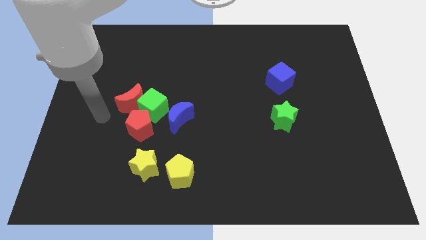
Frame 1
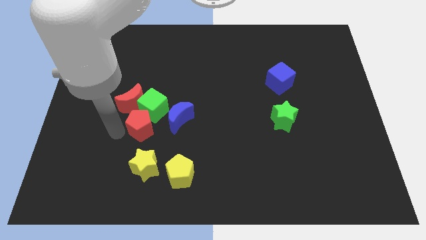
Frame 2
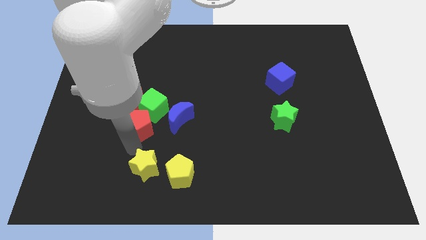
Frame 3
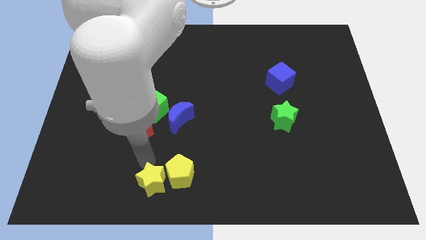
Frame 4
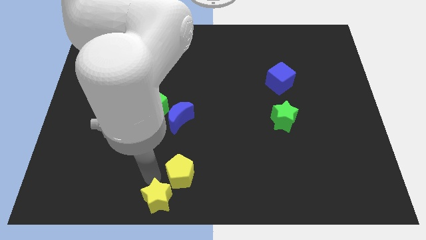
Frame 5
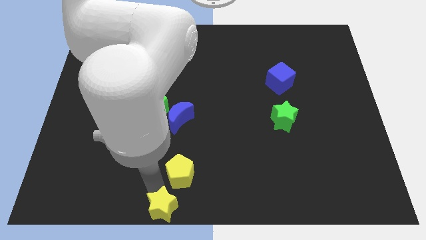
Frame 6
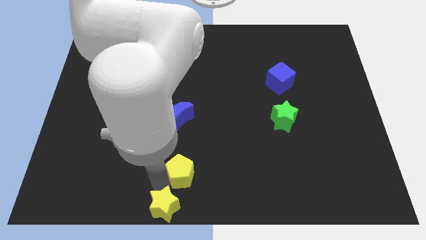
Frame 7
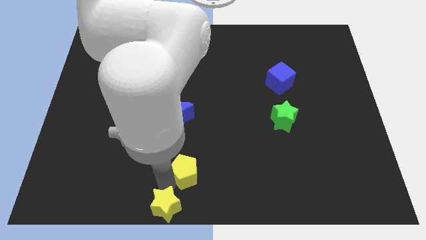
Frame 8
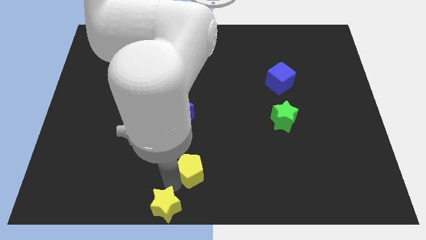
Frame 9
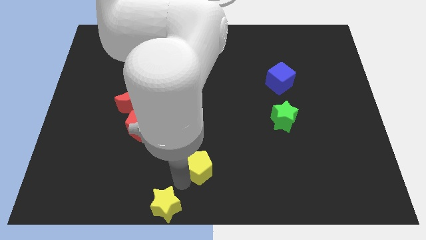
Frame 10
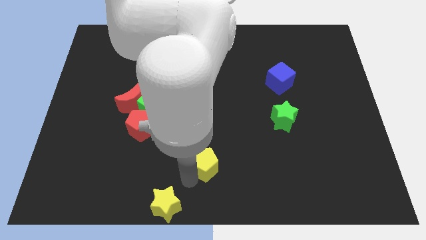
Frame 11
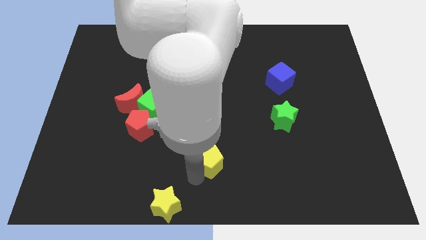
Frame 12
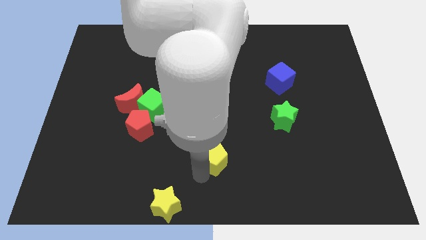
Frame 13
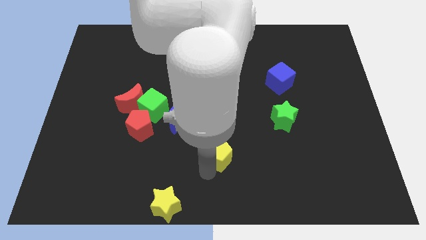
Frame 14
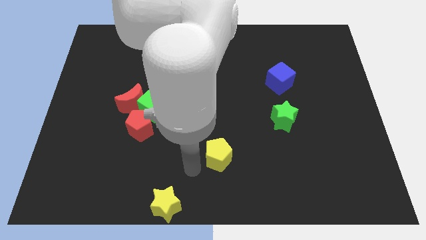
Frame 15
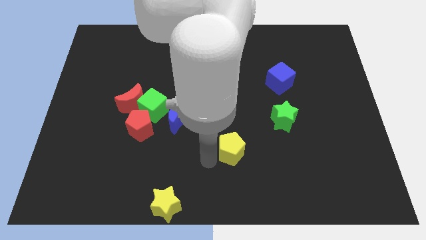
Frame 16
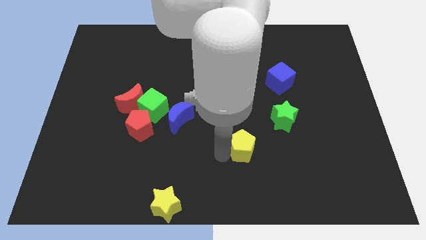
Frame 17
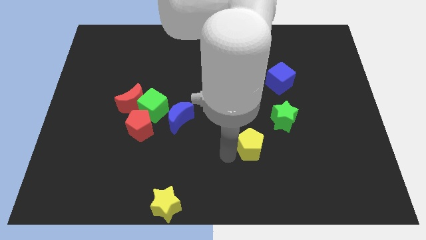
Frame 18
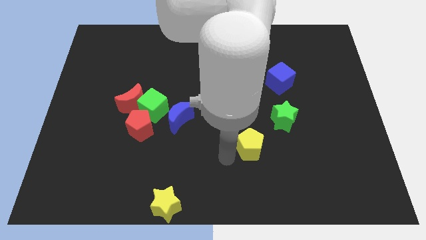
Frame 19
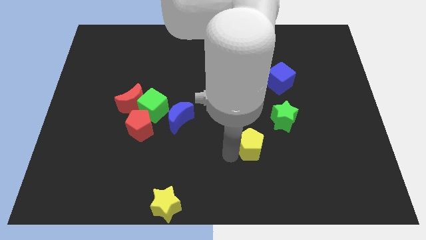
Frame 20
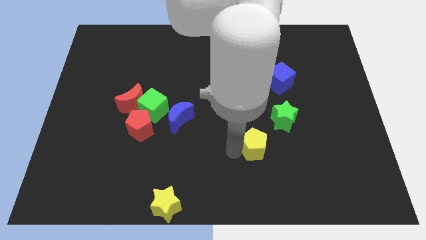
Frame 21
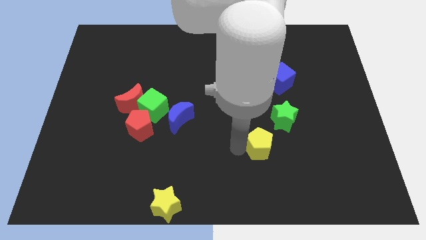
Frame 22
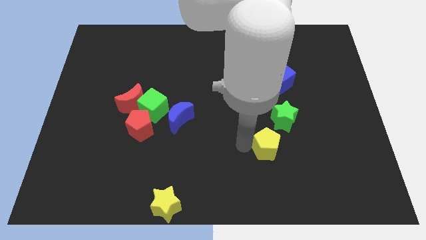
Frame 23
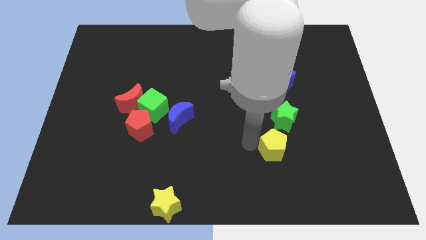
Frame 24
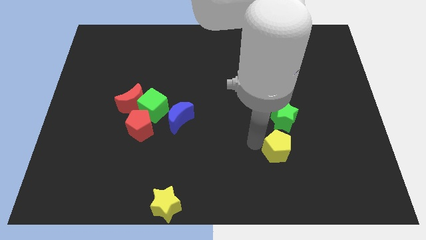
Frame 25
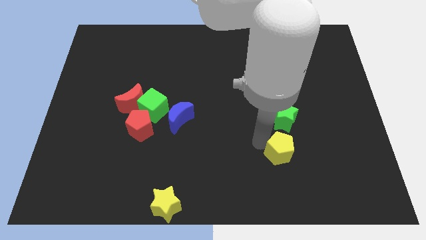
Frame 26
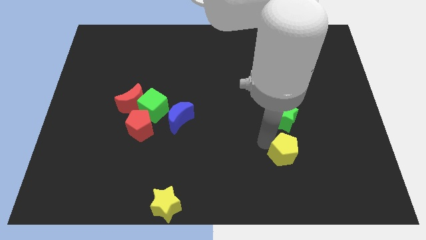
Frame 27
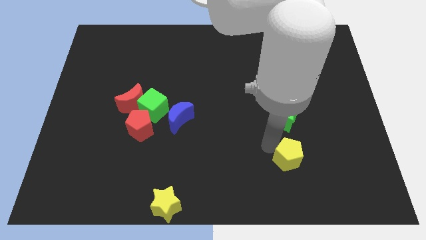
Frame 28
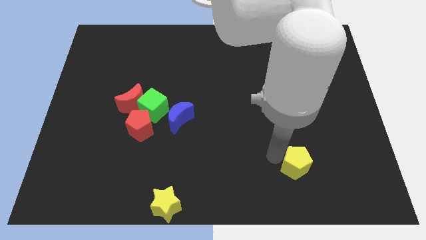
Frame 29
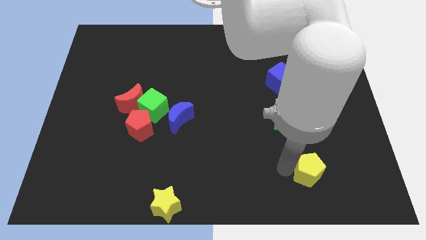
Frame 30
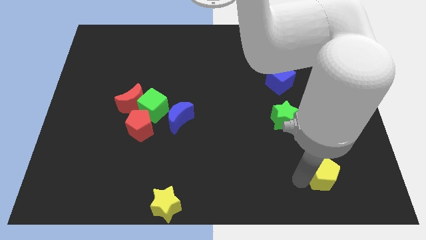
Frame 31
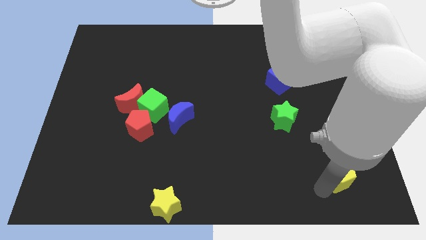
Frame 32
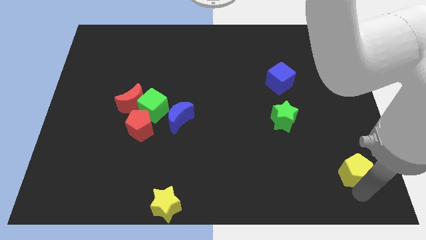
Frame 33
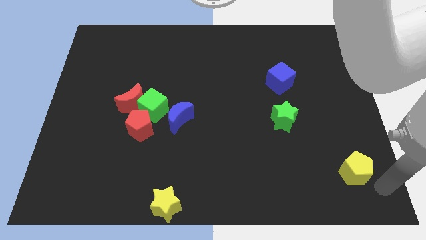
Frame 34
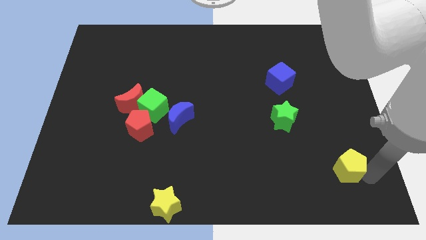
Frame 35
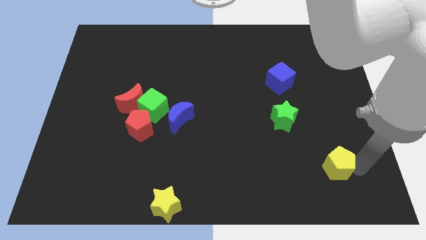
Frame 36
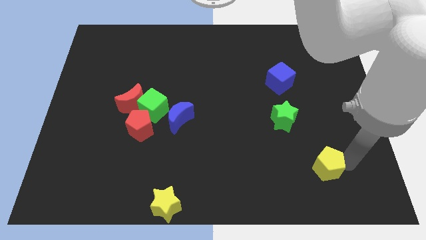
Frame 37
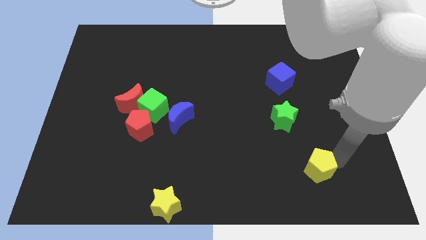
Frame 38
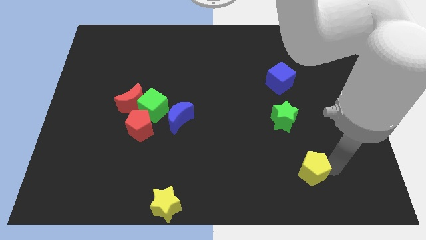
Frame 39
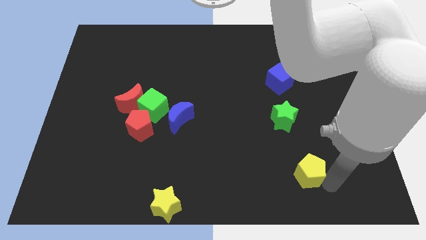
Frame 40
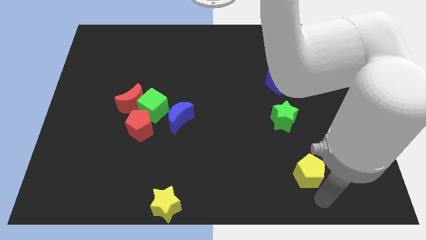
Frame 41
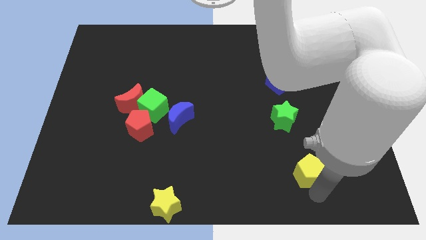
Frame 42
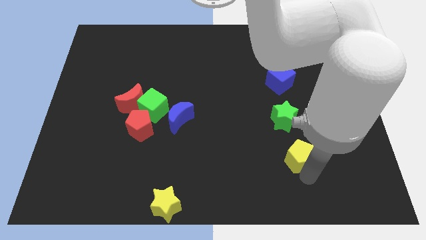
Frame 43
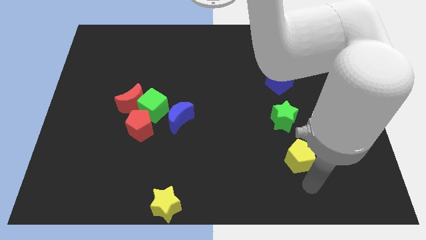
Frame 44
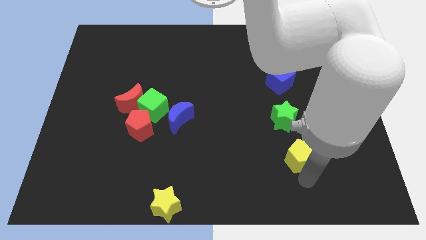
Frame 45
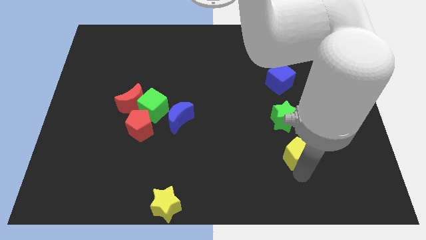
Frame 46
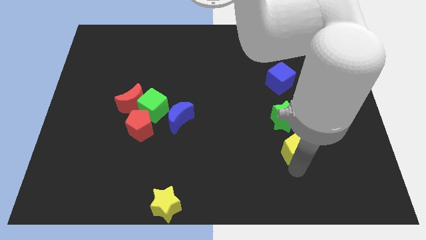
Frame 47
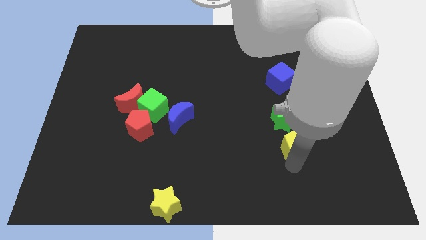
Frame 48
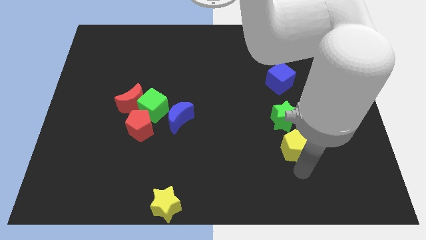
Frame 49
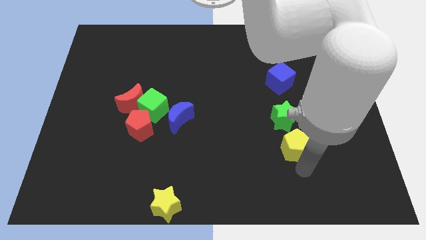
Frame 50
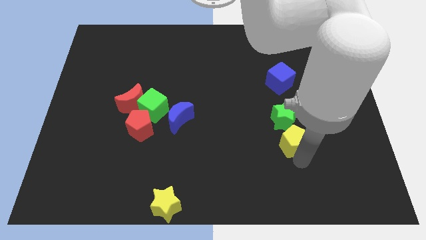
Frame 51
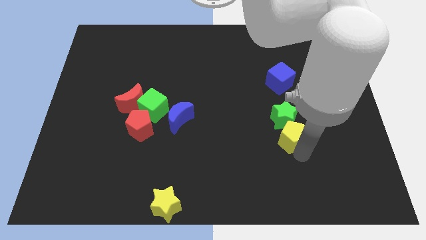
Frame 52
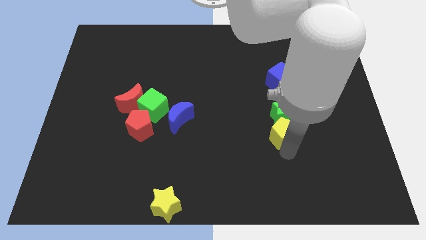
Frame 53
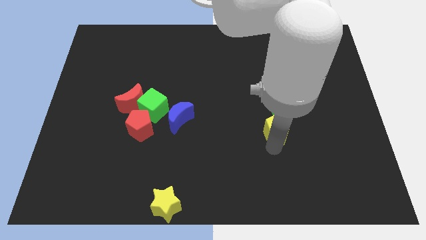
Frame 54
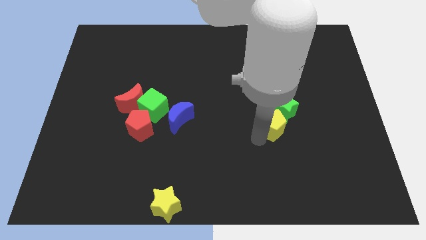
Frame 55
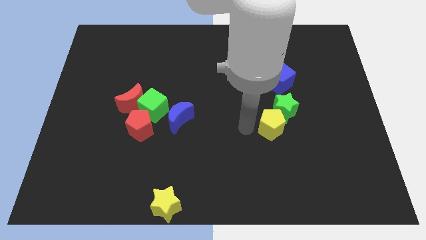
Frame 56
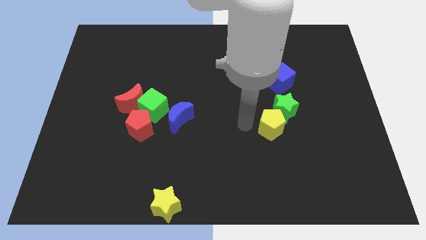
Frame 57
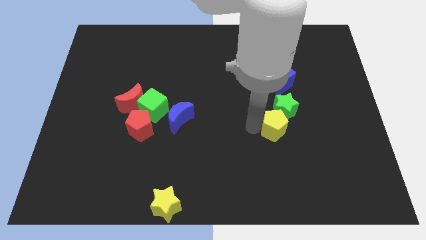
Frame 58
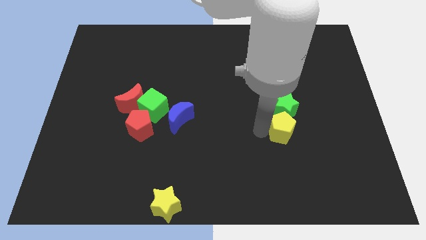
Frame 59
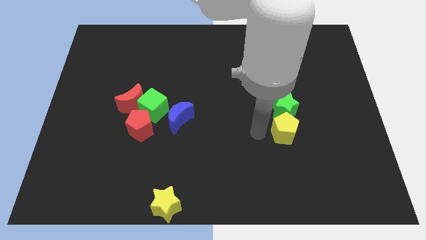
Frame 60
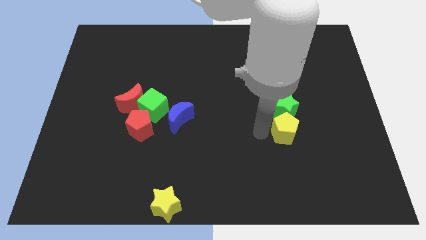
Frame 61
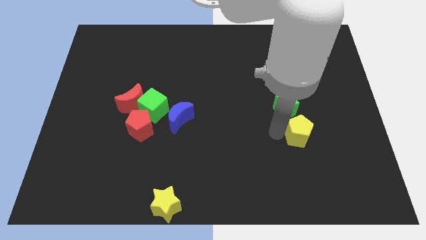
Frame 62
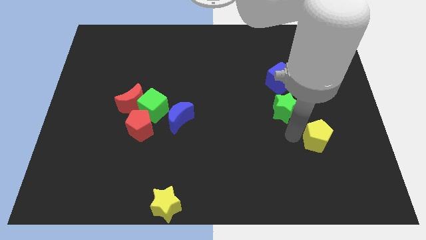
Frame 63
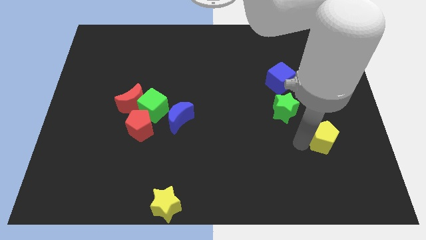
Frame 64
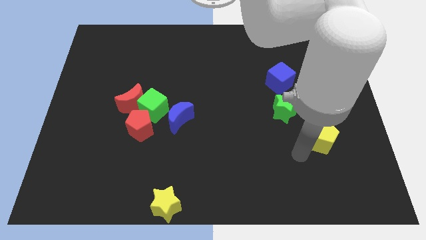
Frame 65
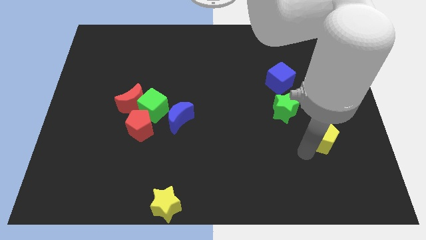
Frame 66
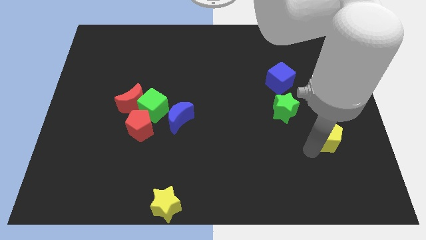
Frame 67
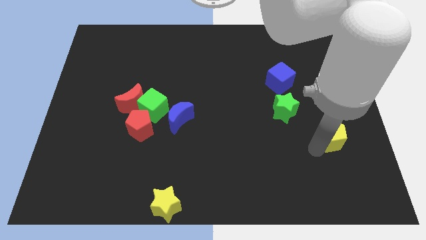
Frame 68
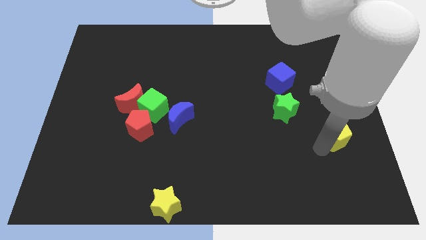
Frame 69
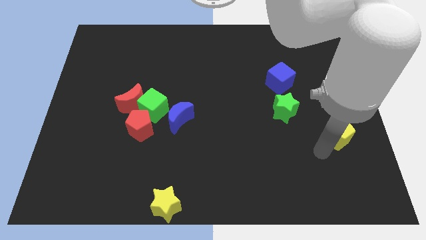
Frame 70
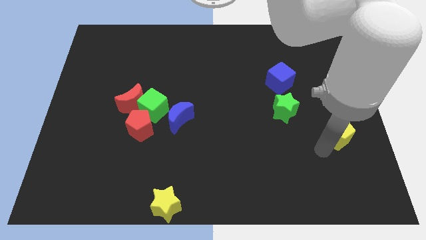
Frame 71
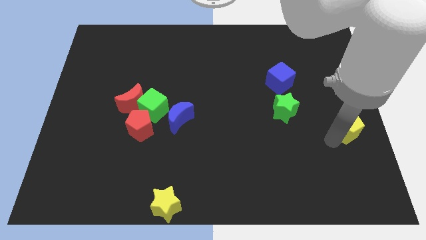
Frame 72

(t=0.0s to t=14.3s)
move the yellow pentagon to the right side

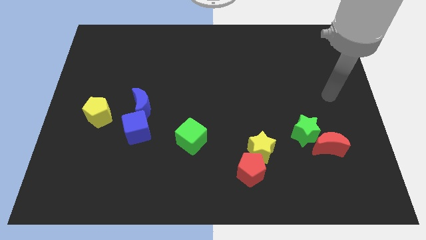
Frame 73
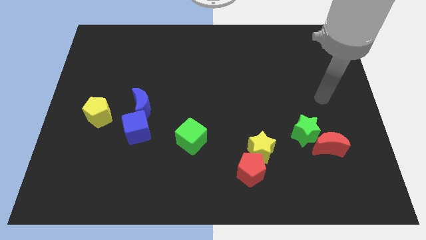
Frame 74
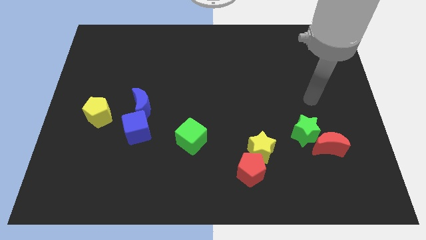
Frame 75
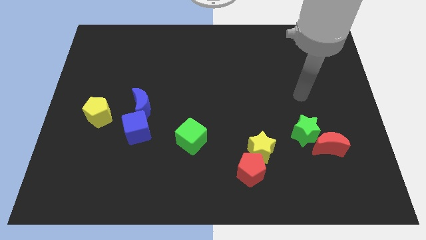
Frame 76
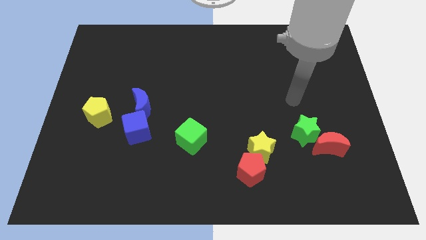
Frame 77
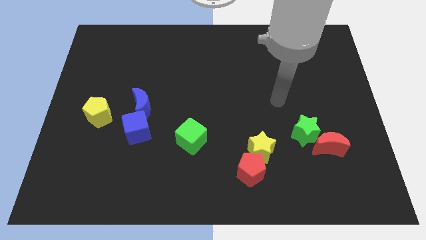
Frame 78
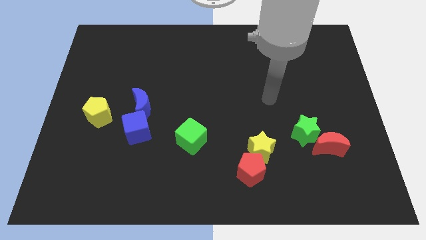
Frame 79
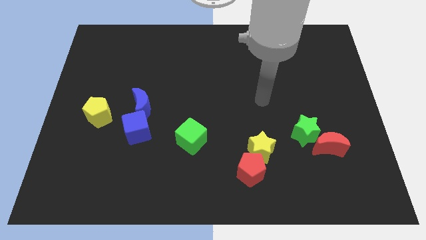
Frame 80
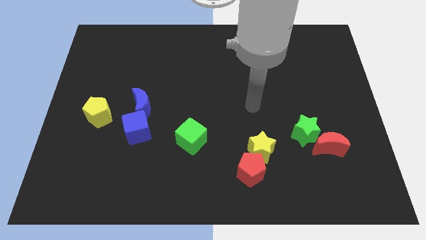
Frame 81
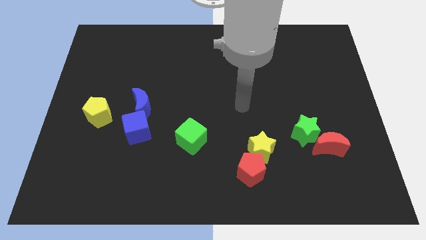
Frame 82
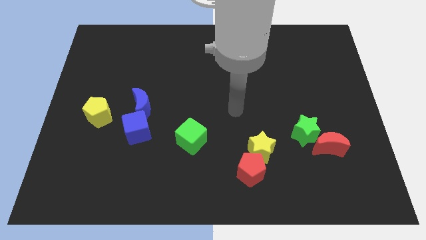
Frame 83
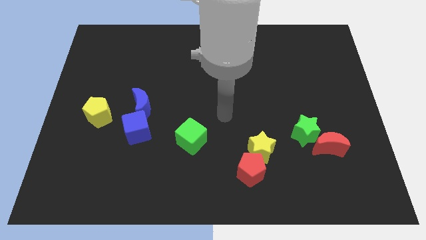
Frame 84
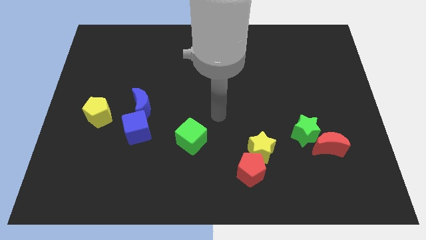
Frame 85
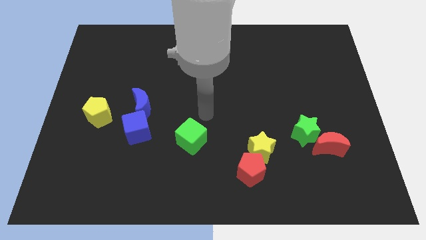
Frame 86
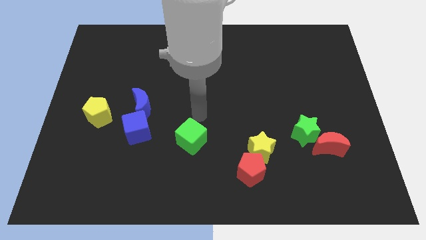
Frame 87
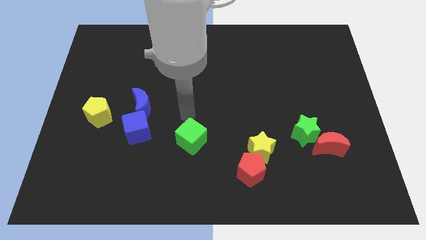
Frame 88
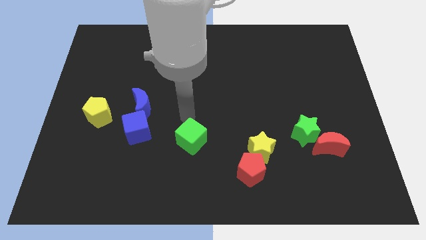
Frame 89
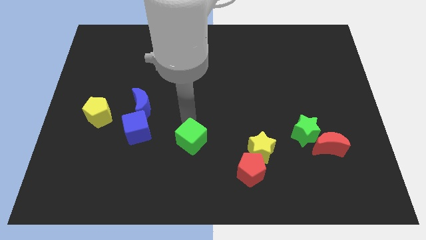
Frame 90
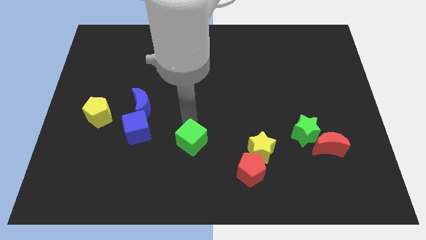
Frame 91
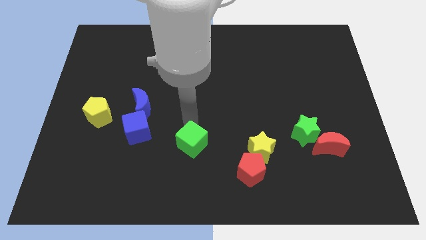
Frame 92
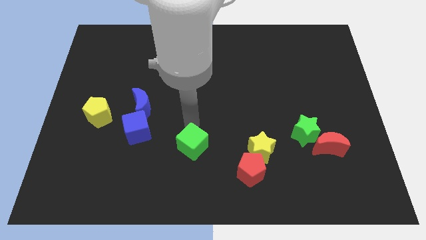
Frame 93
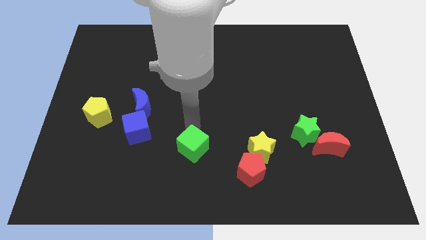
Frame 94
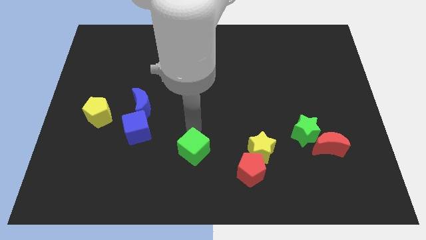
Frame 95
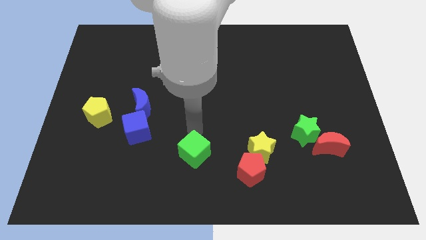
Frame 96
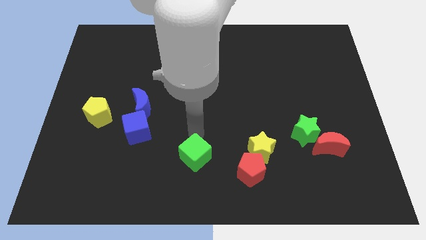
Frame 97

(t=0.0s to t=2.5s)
put the green cube to the bottom
